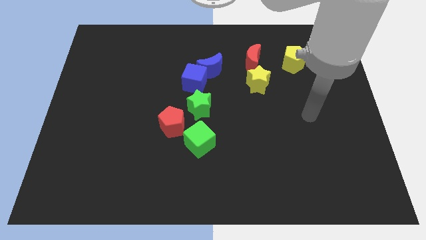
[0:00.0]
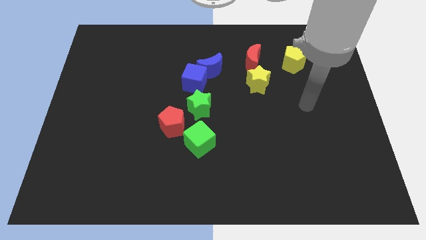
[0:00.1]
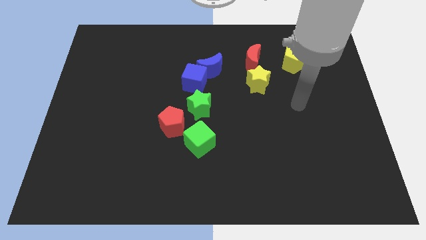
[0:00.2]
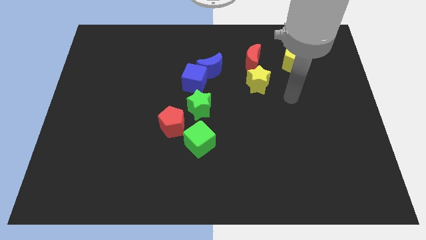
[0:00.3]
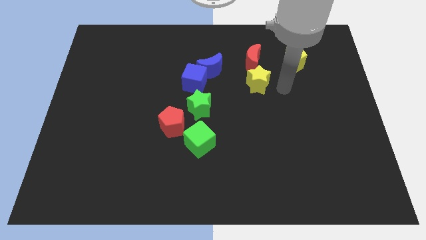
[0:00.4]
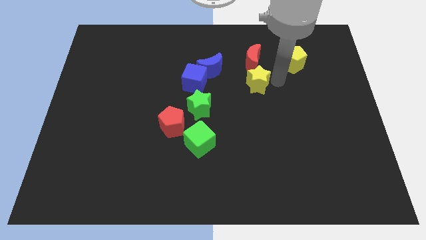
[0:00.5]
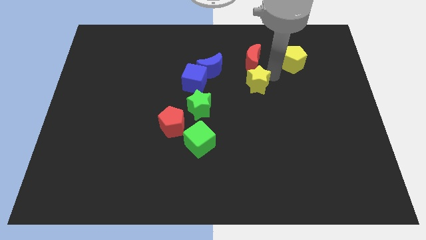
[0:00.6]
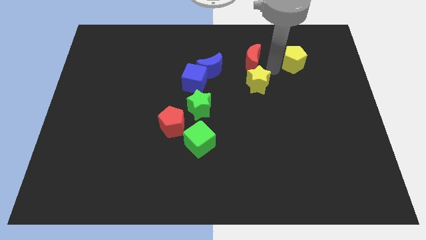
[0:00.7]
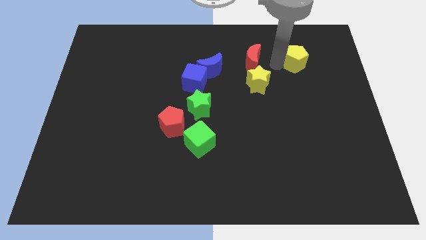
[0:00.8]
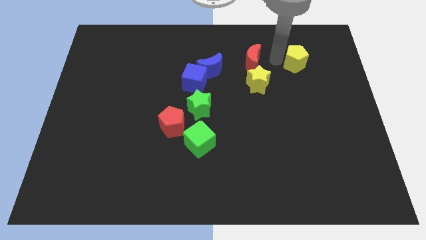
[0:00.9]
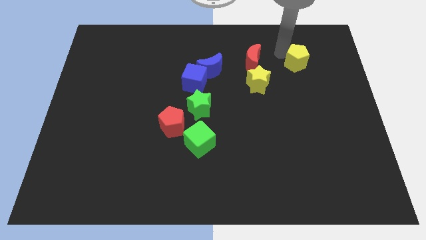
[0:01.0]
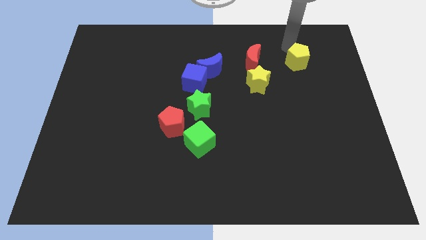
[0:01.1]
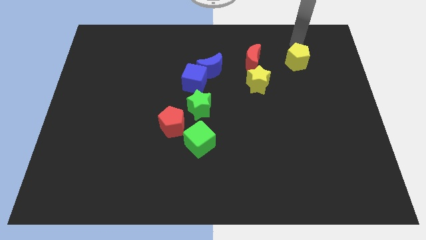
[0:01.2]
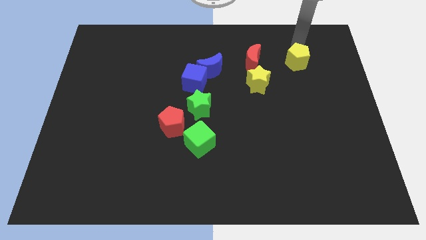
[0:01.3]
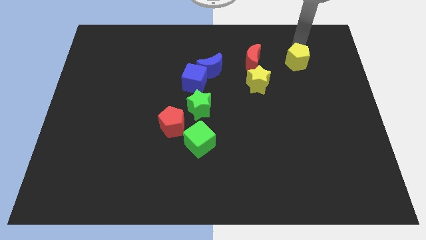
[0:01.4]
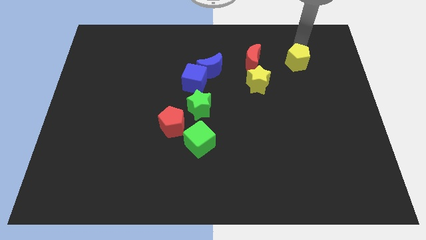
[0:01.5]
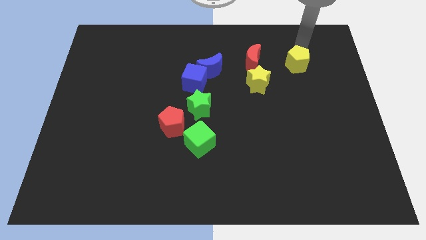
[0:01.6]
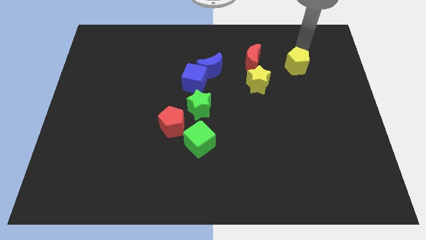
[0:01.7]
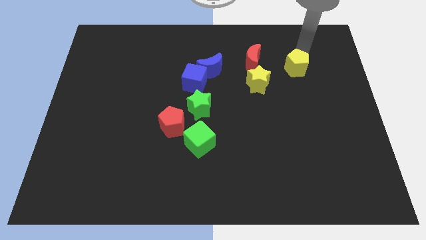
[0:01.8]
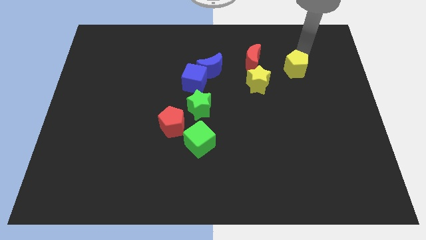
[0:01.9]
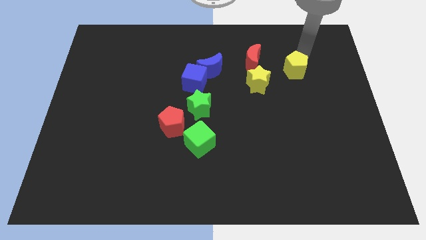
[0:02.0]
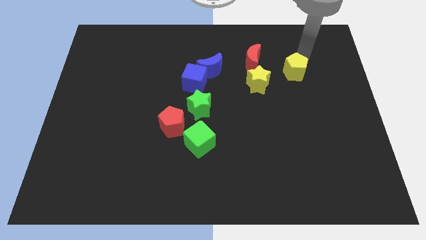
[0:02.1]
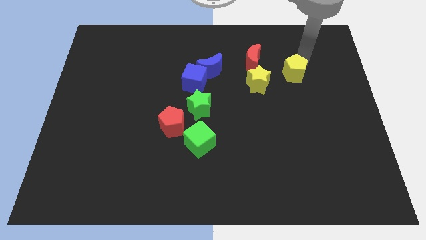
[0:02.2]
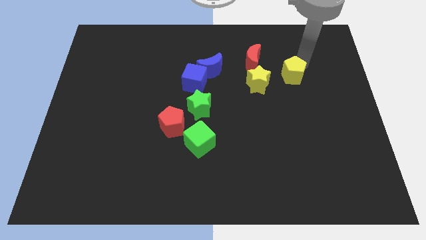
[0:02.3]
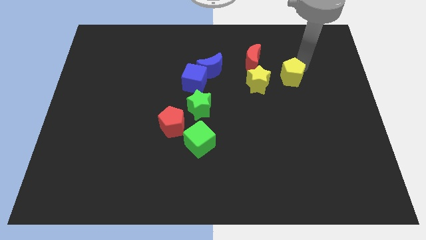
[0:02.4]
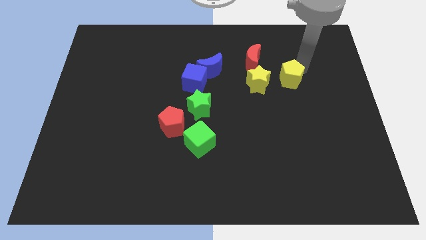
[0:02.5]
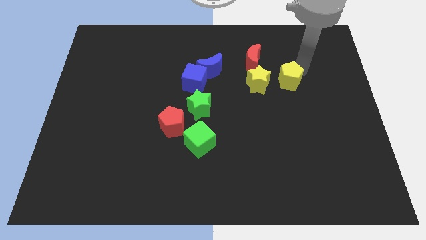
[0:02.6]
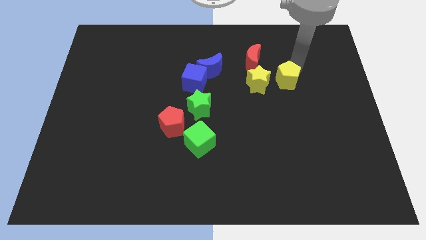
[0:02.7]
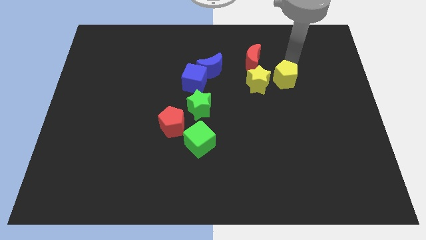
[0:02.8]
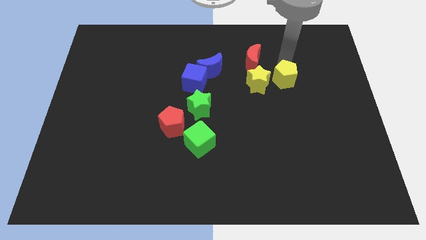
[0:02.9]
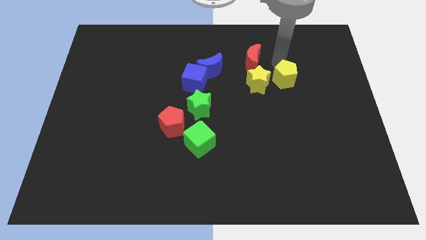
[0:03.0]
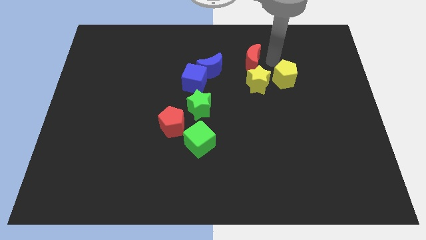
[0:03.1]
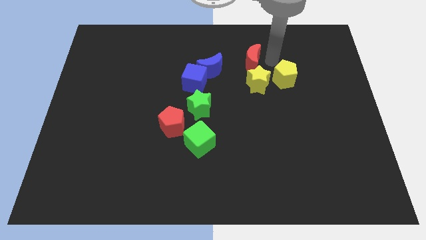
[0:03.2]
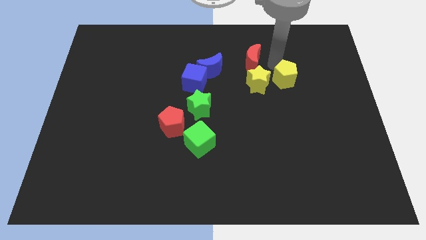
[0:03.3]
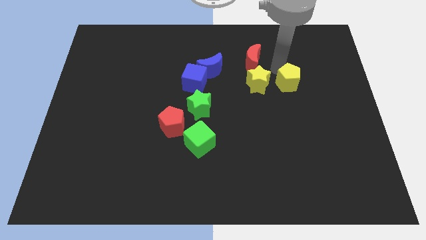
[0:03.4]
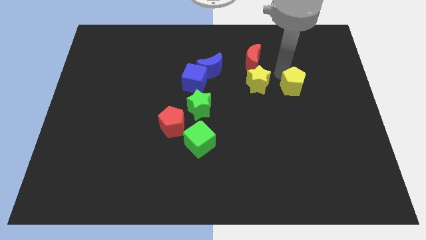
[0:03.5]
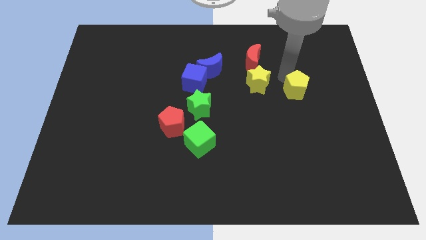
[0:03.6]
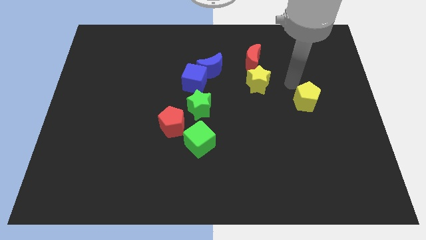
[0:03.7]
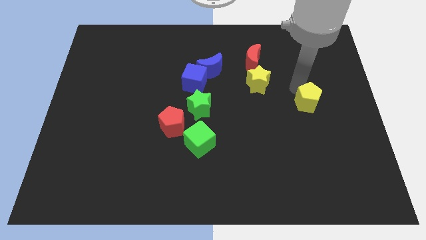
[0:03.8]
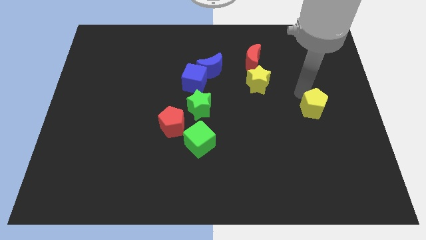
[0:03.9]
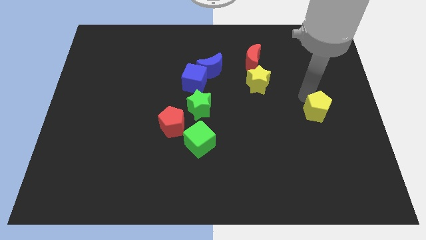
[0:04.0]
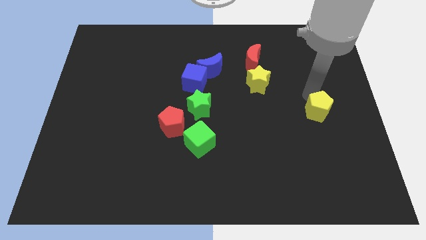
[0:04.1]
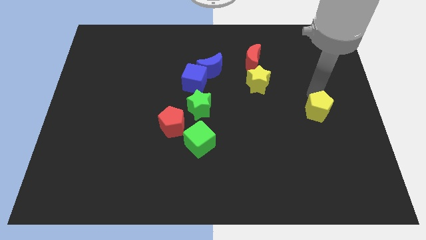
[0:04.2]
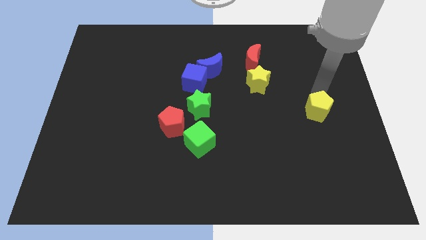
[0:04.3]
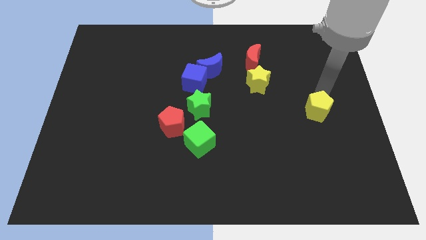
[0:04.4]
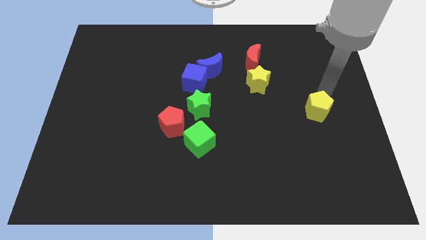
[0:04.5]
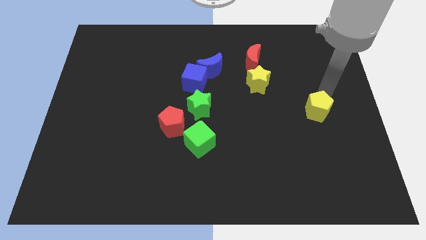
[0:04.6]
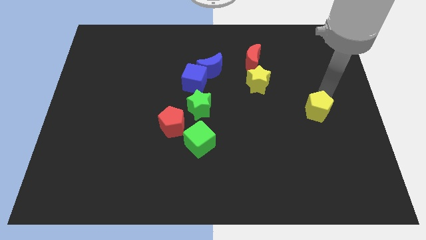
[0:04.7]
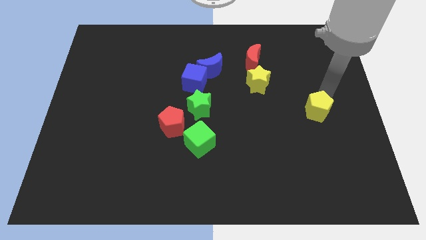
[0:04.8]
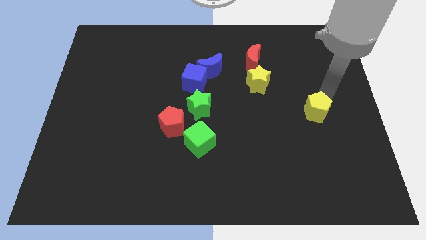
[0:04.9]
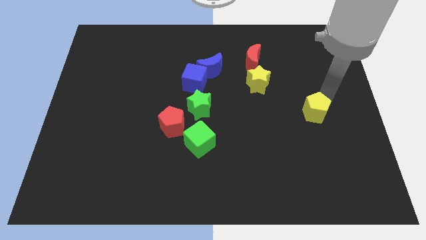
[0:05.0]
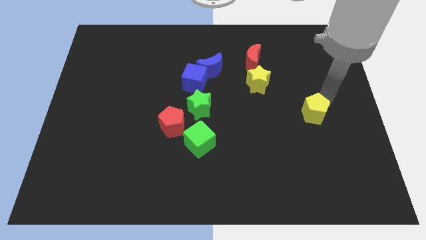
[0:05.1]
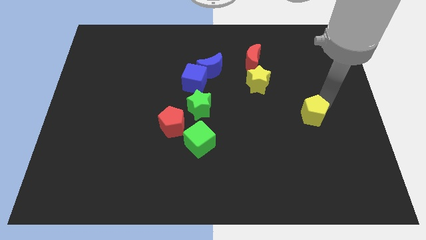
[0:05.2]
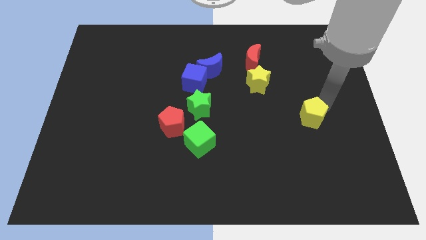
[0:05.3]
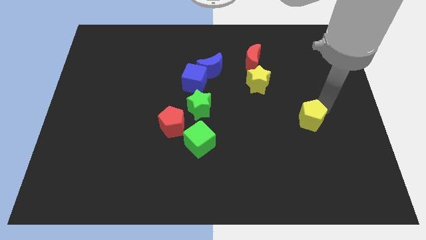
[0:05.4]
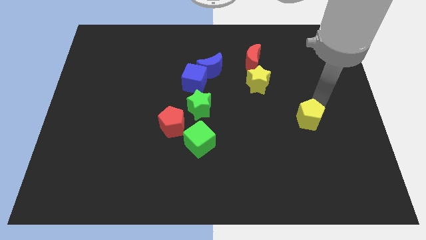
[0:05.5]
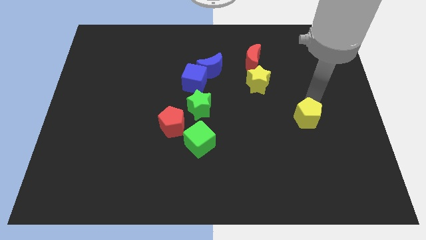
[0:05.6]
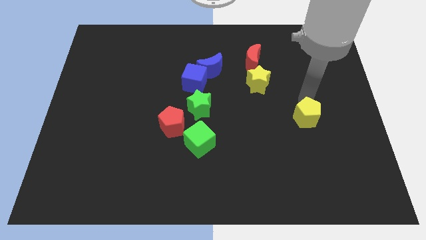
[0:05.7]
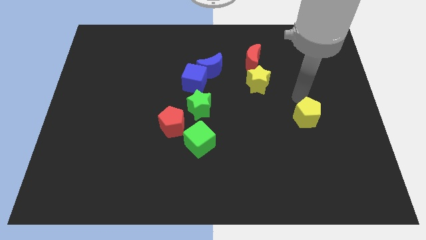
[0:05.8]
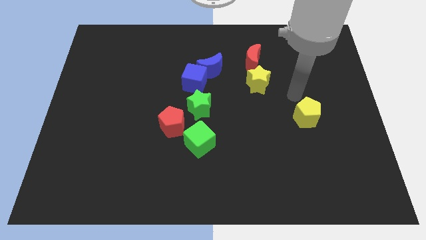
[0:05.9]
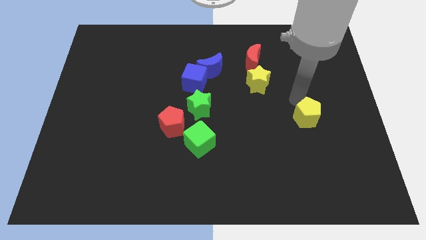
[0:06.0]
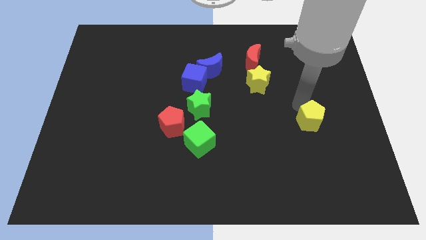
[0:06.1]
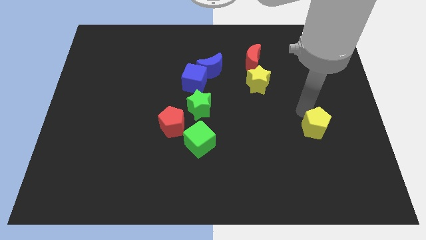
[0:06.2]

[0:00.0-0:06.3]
push the yellow pentagon downwards

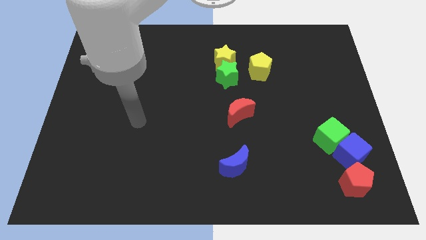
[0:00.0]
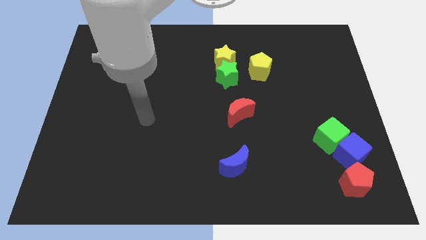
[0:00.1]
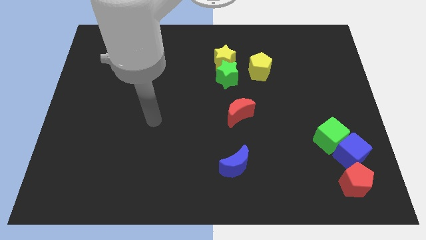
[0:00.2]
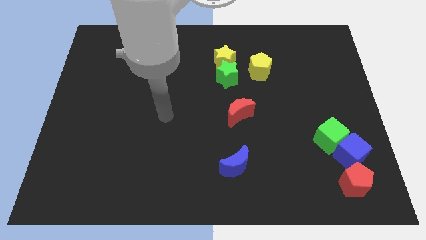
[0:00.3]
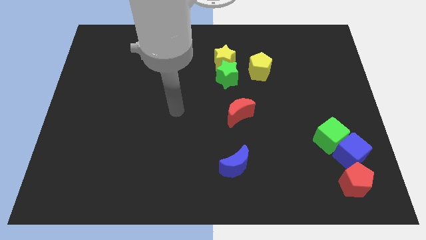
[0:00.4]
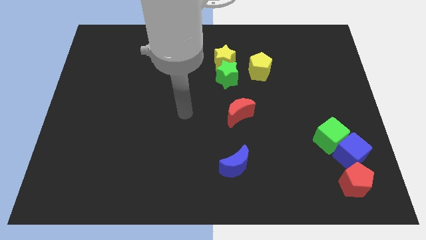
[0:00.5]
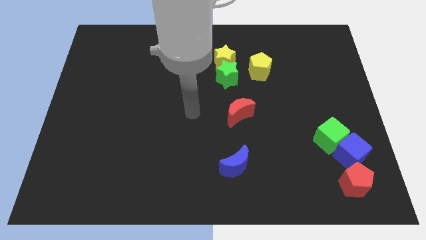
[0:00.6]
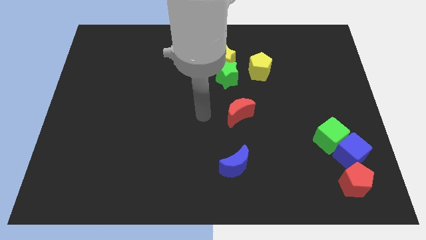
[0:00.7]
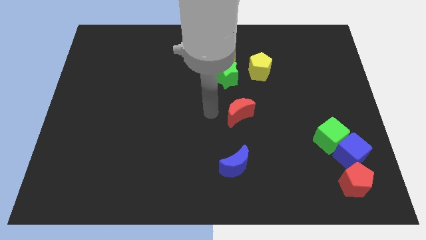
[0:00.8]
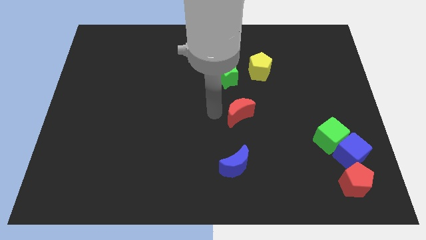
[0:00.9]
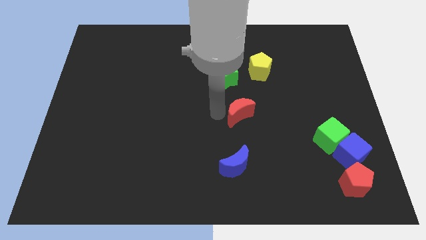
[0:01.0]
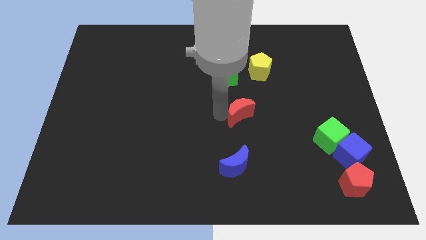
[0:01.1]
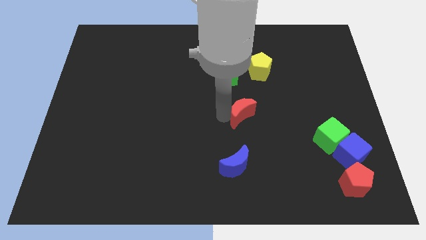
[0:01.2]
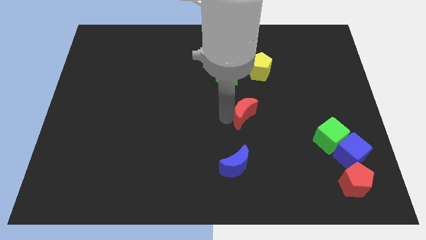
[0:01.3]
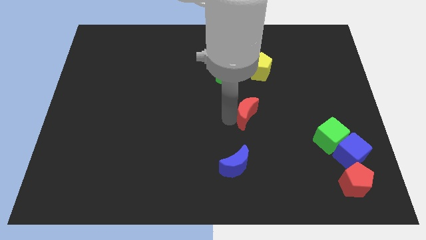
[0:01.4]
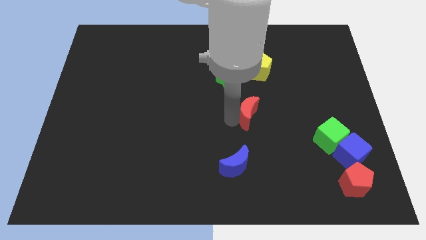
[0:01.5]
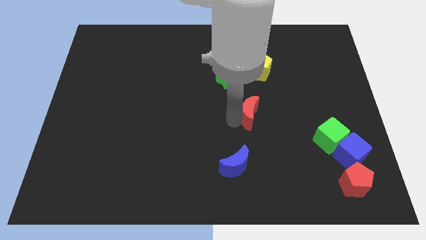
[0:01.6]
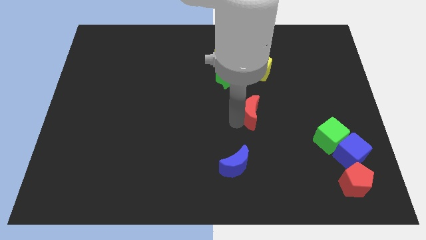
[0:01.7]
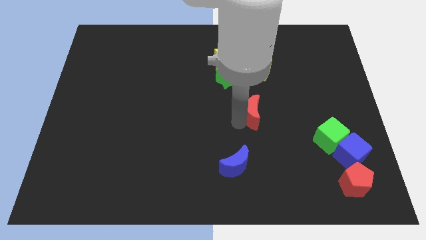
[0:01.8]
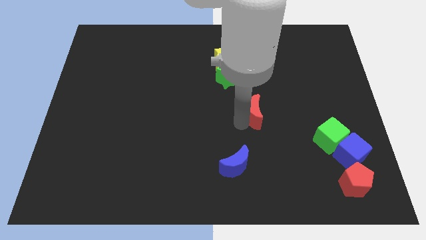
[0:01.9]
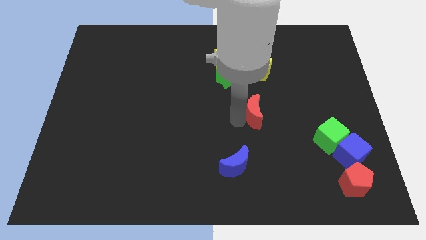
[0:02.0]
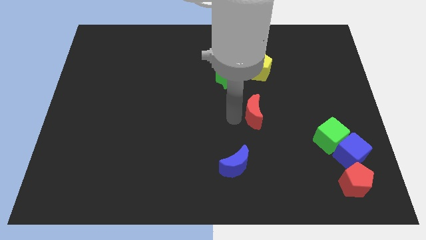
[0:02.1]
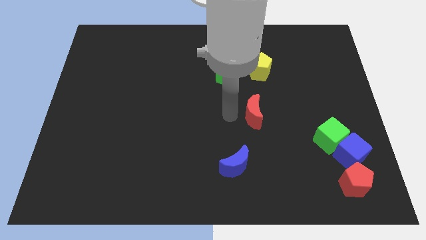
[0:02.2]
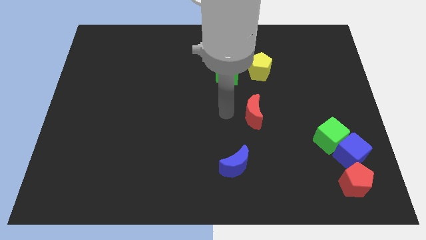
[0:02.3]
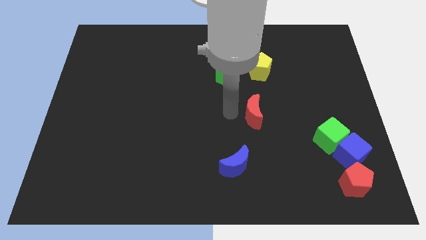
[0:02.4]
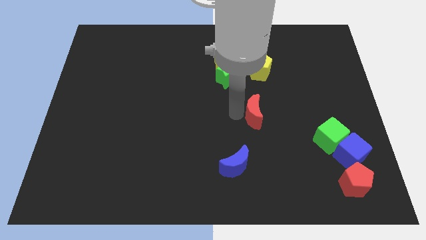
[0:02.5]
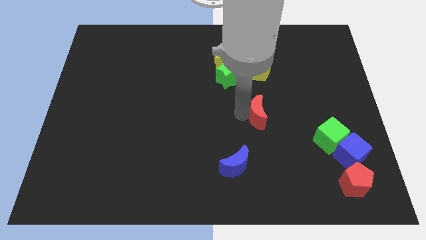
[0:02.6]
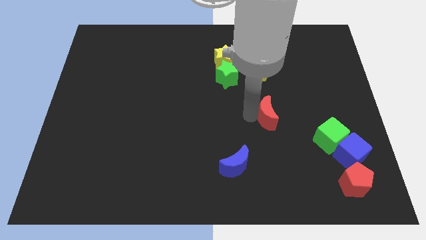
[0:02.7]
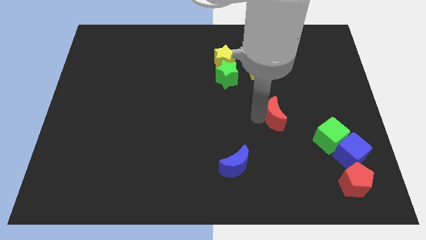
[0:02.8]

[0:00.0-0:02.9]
push the red moon right a bit
